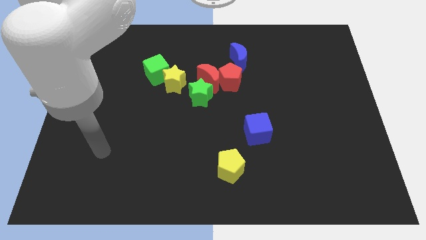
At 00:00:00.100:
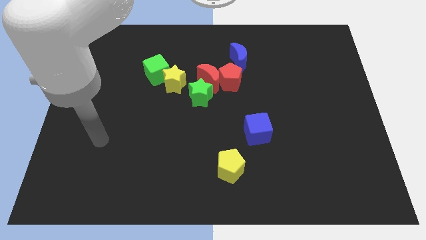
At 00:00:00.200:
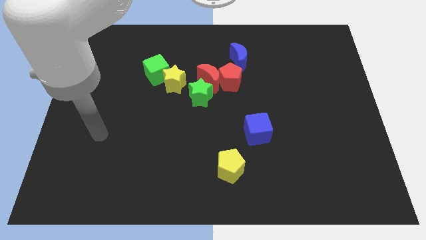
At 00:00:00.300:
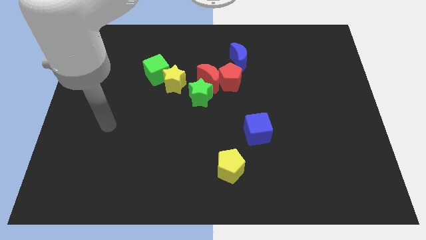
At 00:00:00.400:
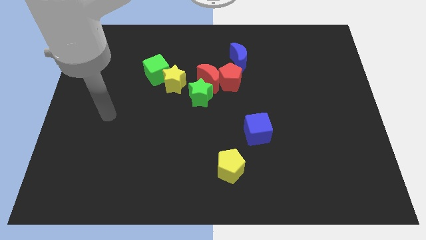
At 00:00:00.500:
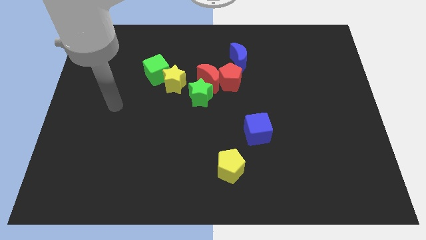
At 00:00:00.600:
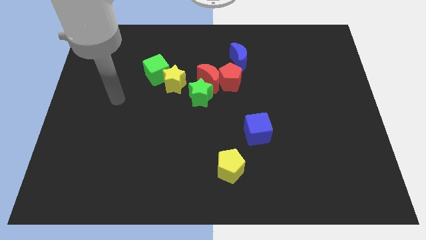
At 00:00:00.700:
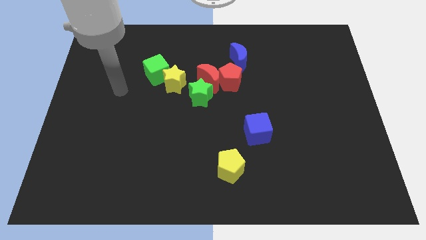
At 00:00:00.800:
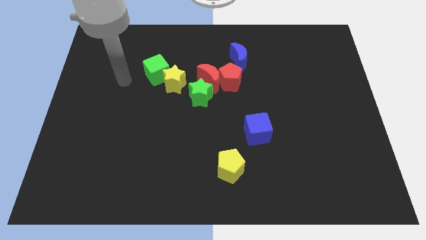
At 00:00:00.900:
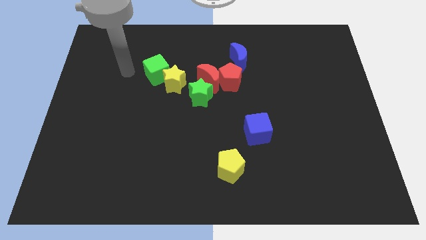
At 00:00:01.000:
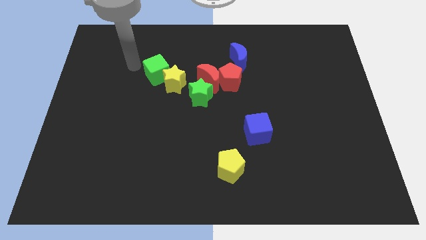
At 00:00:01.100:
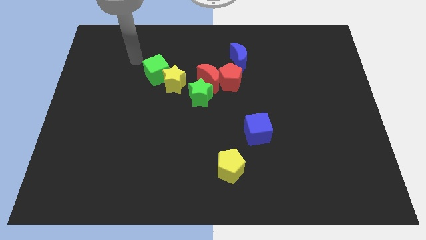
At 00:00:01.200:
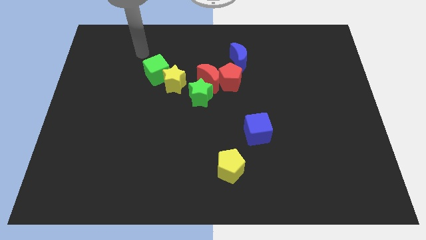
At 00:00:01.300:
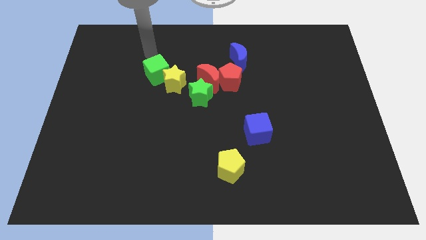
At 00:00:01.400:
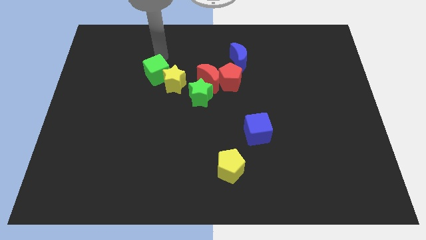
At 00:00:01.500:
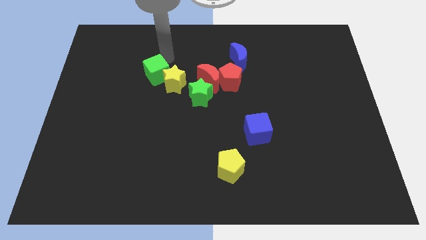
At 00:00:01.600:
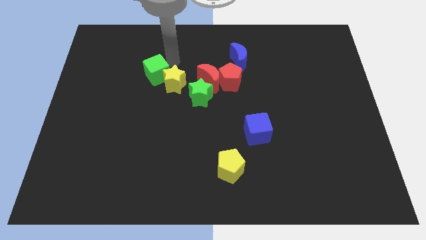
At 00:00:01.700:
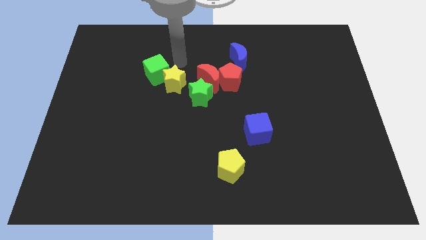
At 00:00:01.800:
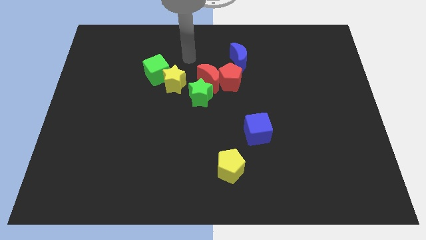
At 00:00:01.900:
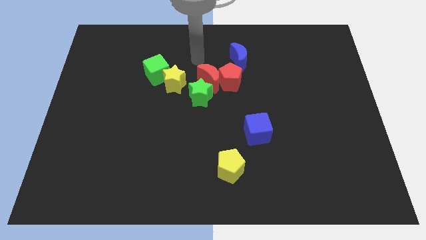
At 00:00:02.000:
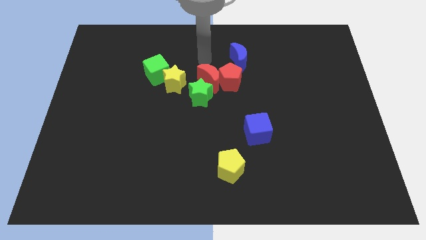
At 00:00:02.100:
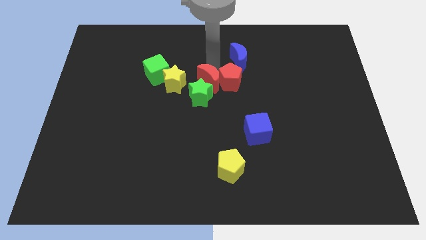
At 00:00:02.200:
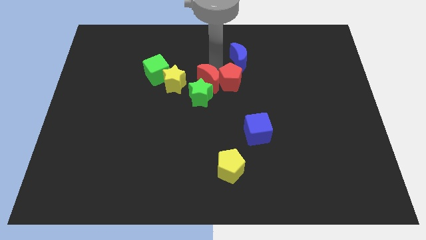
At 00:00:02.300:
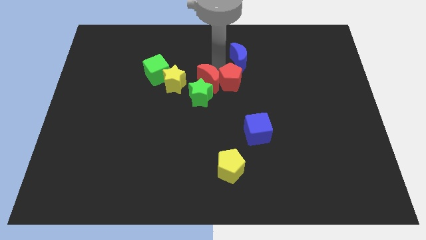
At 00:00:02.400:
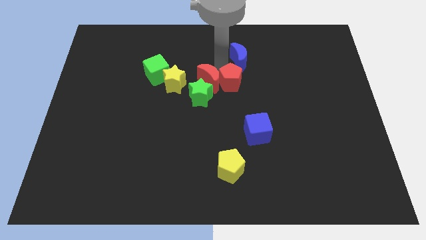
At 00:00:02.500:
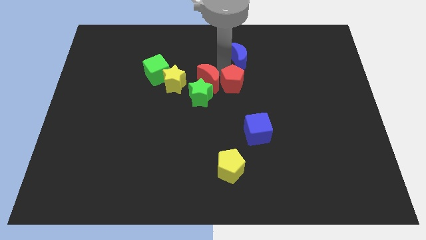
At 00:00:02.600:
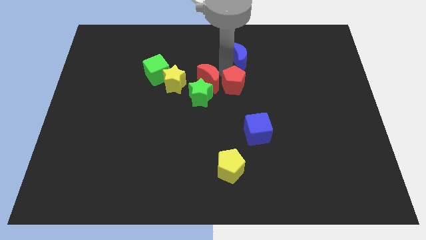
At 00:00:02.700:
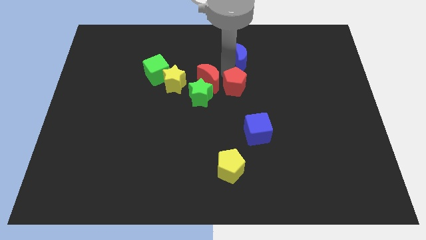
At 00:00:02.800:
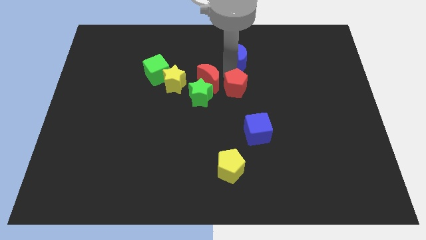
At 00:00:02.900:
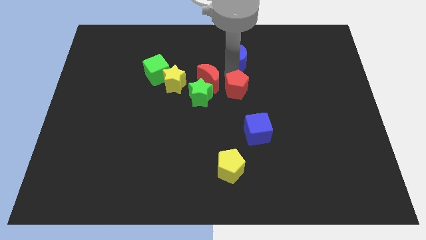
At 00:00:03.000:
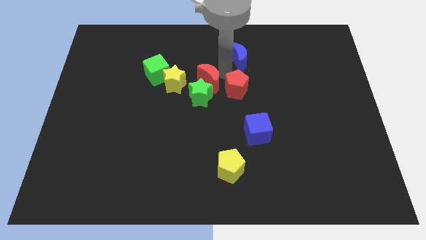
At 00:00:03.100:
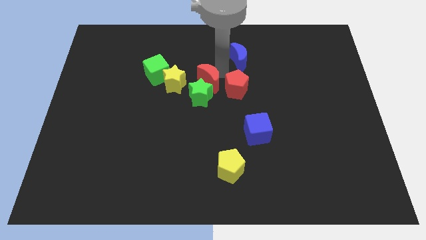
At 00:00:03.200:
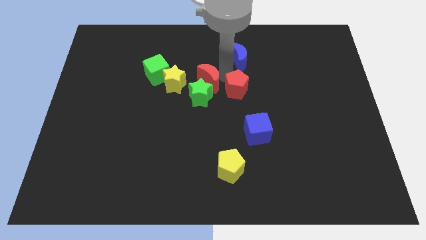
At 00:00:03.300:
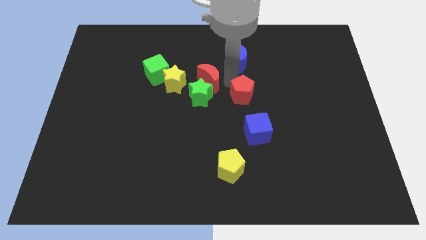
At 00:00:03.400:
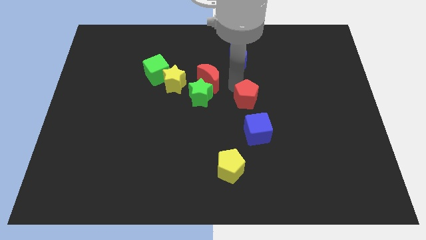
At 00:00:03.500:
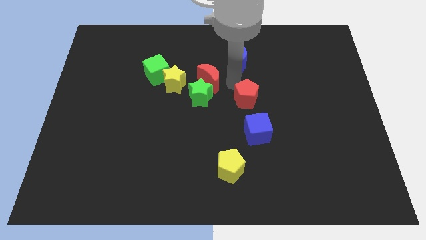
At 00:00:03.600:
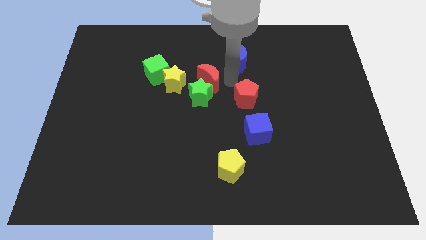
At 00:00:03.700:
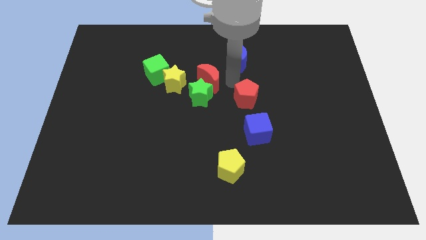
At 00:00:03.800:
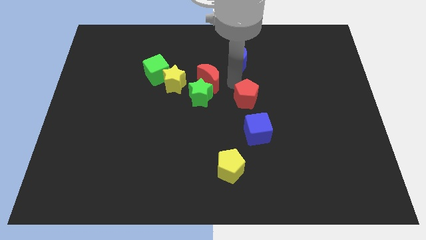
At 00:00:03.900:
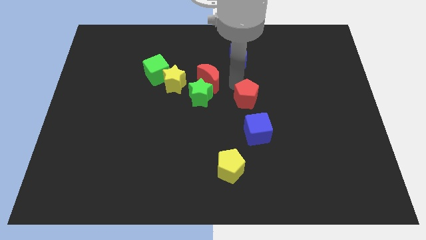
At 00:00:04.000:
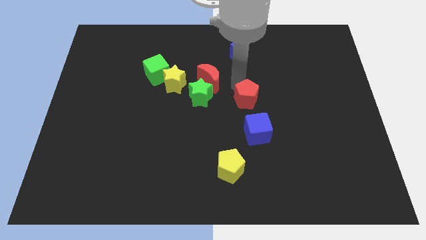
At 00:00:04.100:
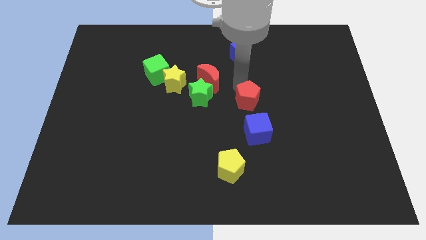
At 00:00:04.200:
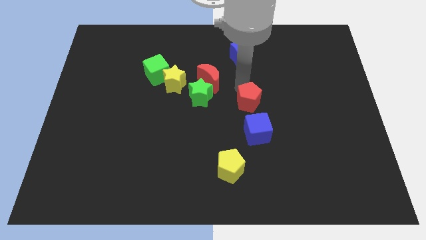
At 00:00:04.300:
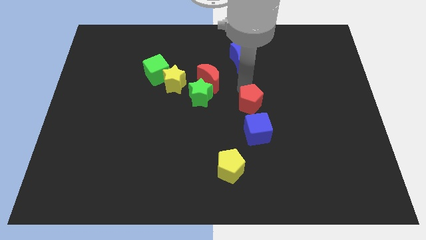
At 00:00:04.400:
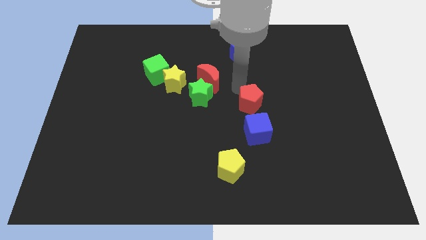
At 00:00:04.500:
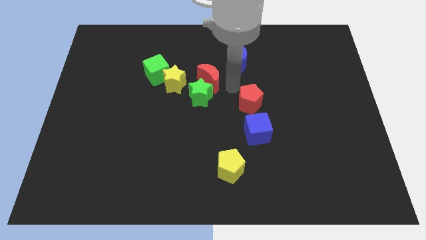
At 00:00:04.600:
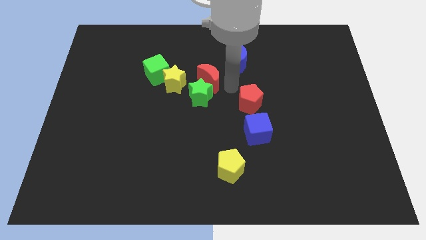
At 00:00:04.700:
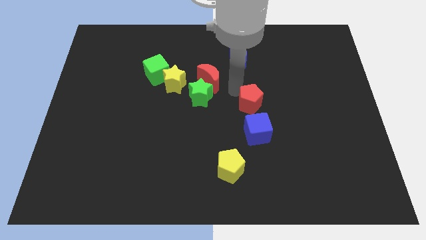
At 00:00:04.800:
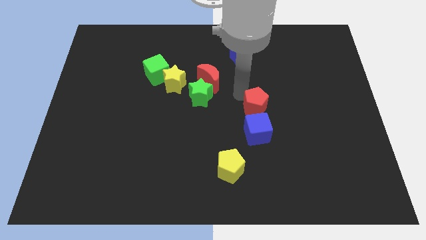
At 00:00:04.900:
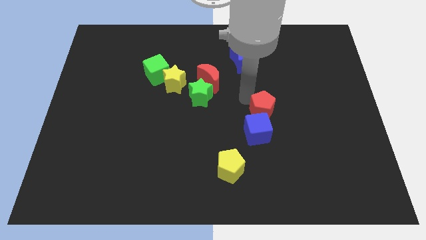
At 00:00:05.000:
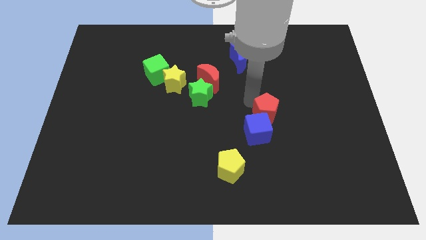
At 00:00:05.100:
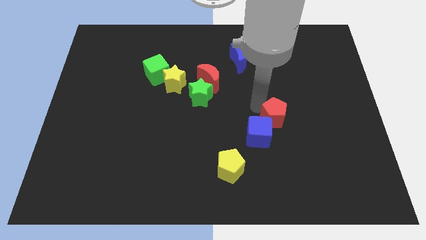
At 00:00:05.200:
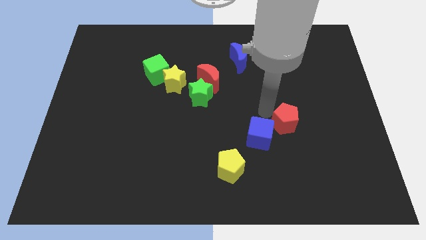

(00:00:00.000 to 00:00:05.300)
move the red pentagon to the right of the blue cube

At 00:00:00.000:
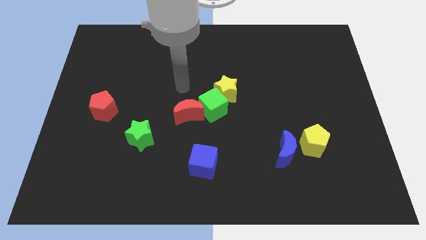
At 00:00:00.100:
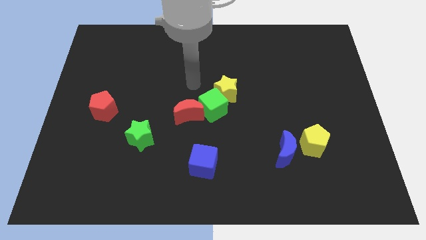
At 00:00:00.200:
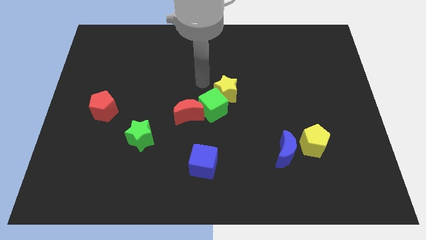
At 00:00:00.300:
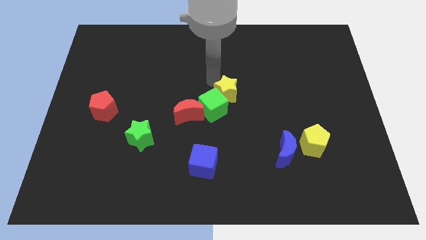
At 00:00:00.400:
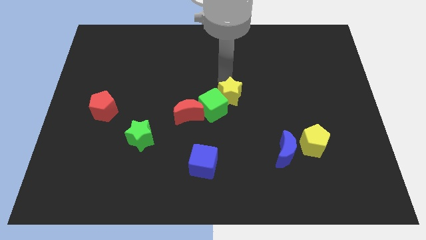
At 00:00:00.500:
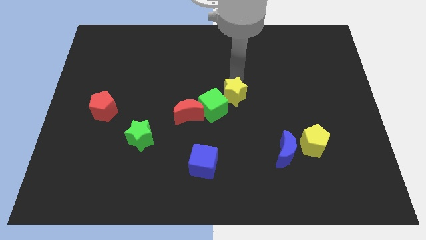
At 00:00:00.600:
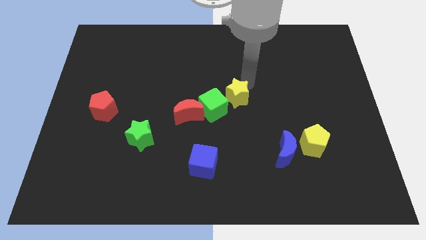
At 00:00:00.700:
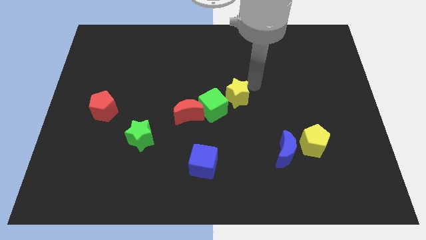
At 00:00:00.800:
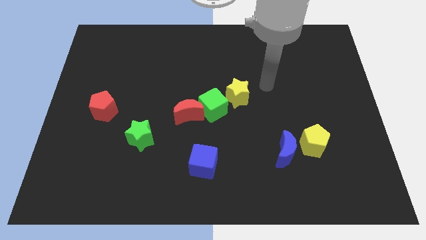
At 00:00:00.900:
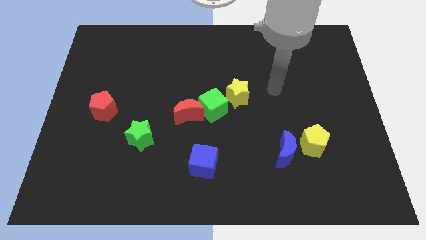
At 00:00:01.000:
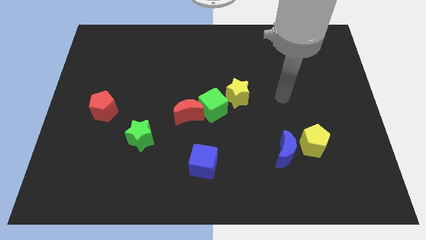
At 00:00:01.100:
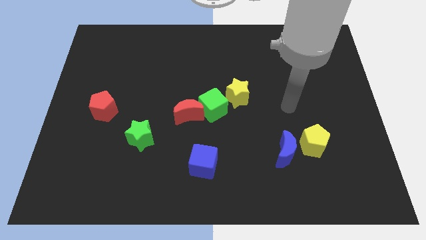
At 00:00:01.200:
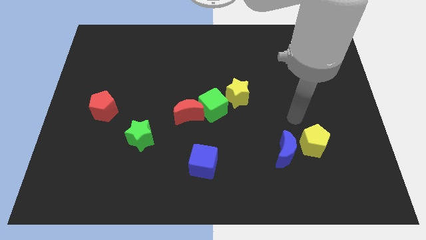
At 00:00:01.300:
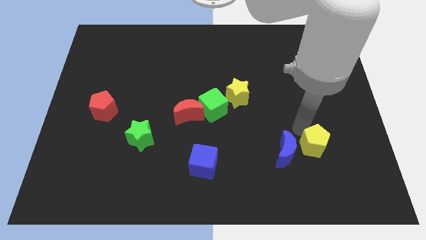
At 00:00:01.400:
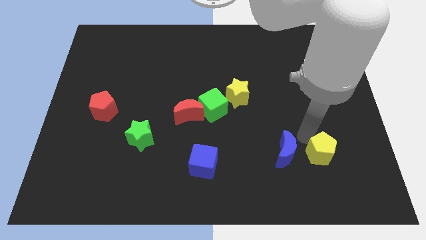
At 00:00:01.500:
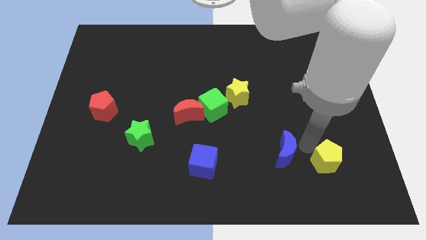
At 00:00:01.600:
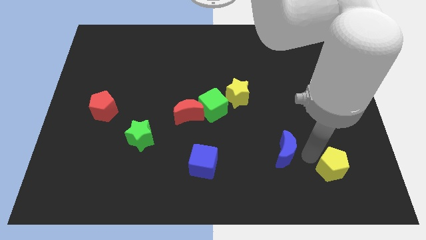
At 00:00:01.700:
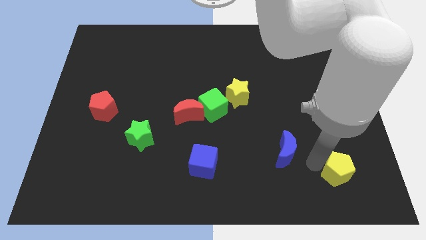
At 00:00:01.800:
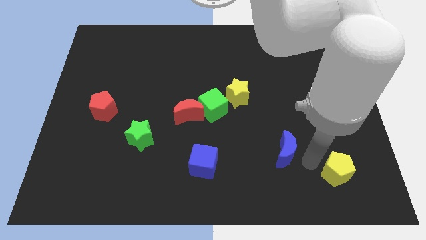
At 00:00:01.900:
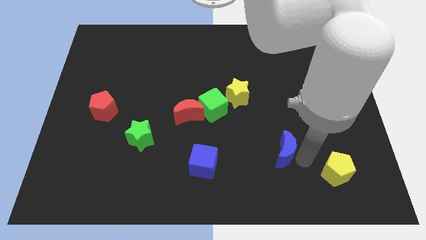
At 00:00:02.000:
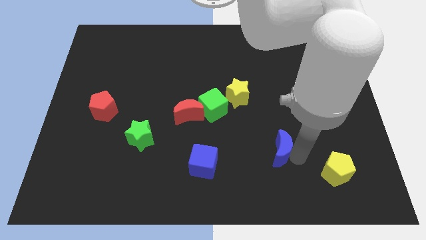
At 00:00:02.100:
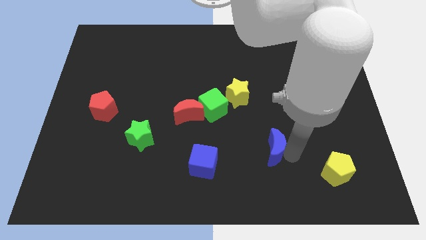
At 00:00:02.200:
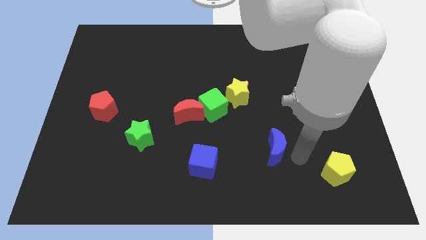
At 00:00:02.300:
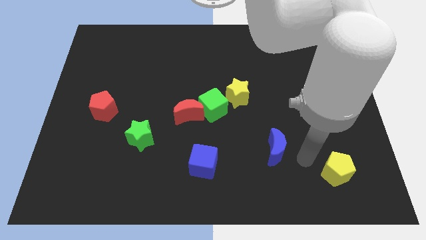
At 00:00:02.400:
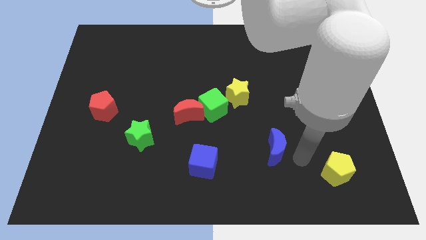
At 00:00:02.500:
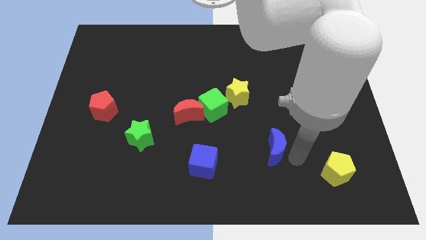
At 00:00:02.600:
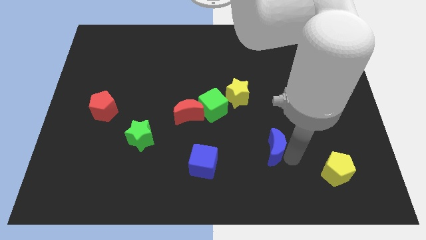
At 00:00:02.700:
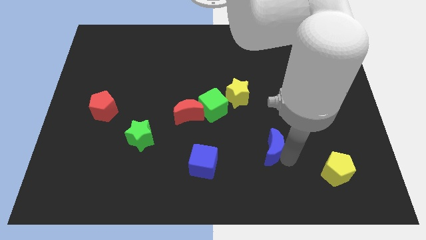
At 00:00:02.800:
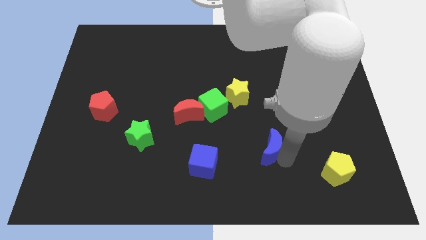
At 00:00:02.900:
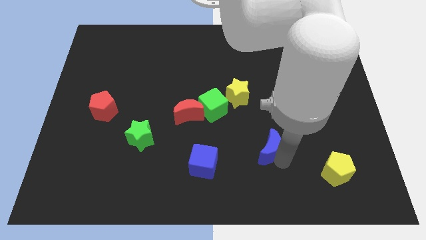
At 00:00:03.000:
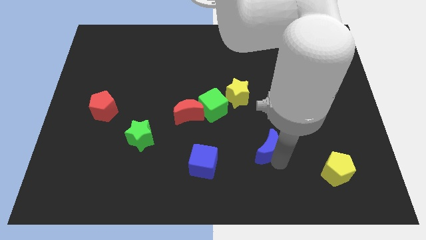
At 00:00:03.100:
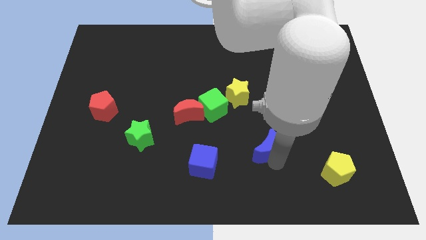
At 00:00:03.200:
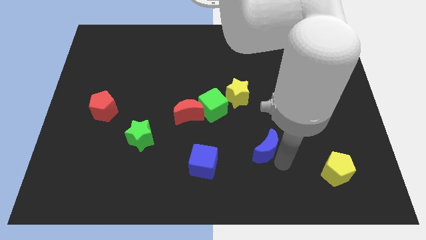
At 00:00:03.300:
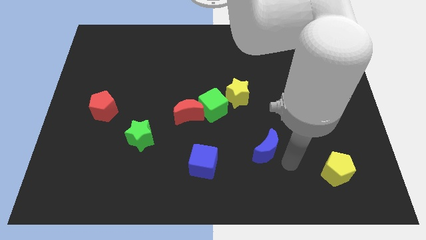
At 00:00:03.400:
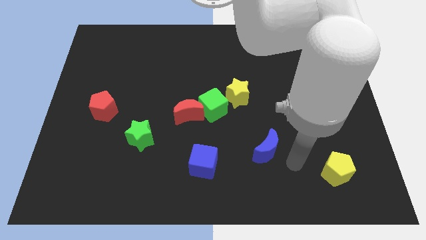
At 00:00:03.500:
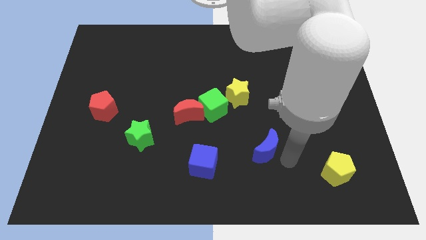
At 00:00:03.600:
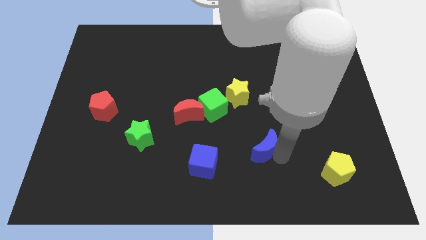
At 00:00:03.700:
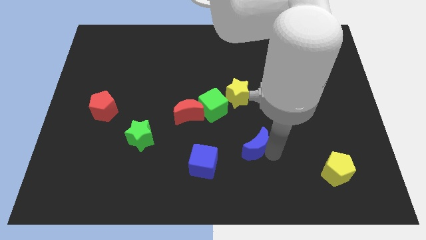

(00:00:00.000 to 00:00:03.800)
put the blue moon below the yellow star
